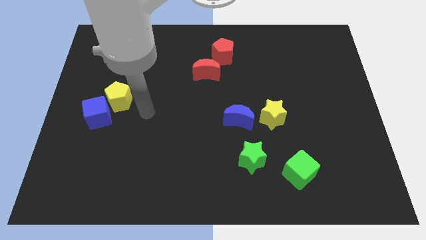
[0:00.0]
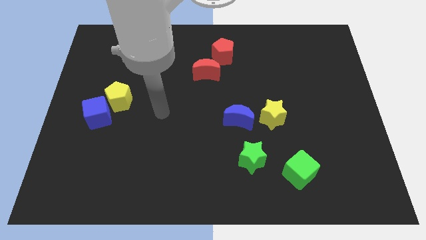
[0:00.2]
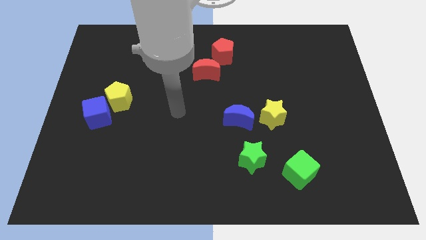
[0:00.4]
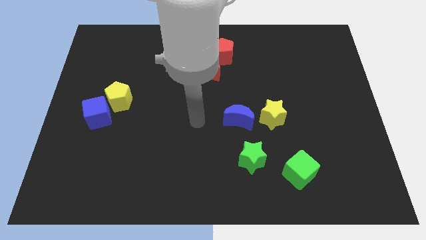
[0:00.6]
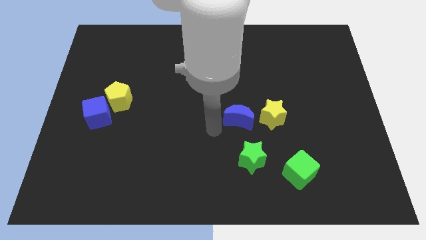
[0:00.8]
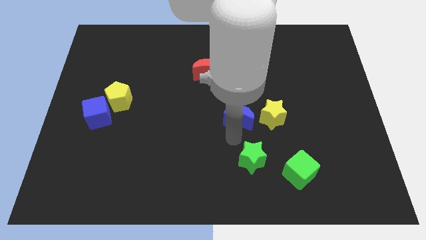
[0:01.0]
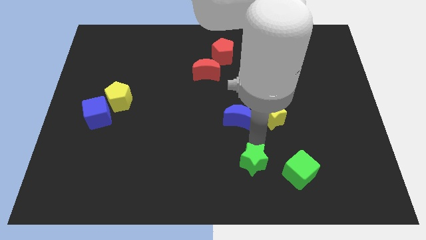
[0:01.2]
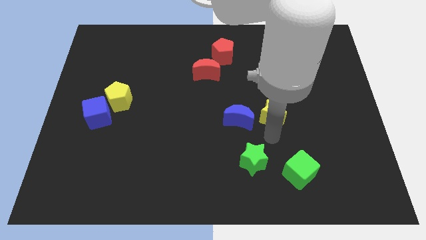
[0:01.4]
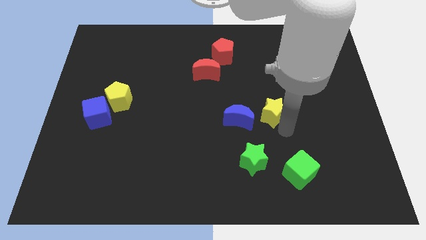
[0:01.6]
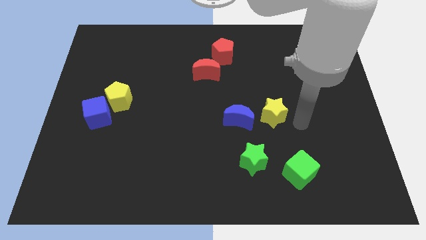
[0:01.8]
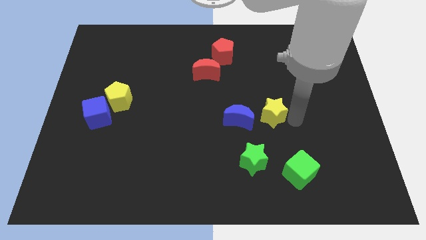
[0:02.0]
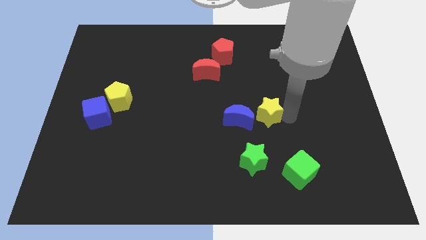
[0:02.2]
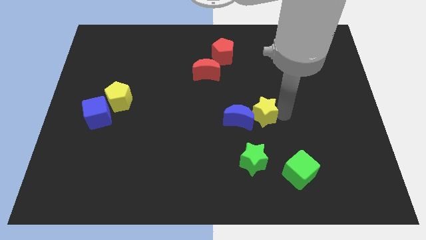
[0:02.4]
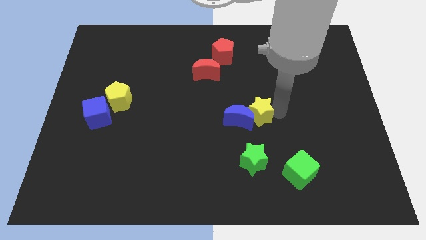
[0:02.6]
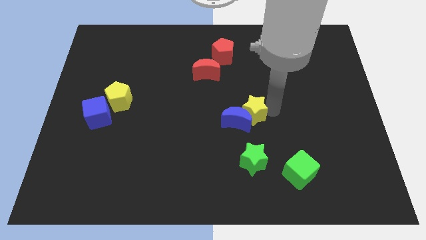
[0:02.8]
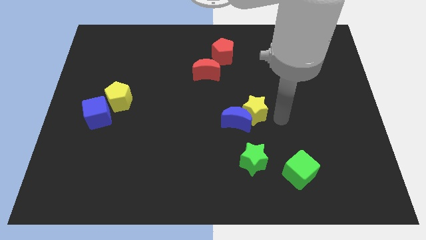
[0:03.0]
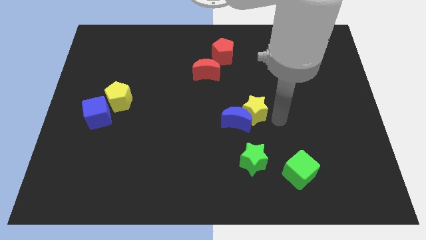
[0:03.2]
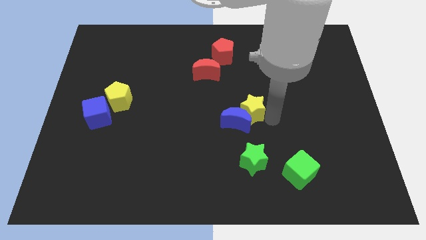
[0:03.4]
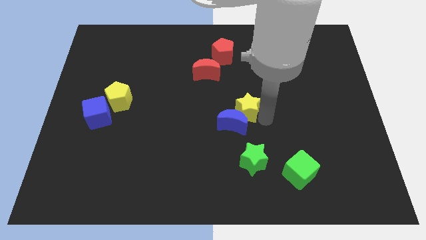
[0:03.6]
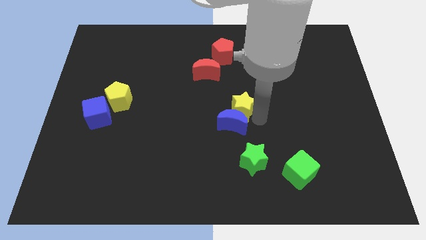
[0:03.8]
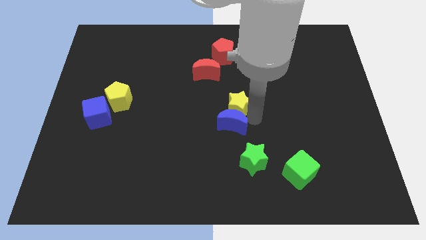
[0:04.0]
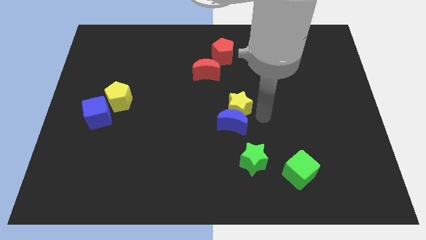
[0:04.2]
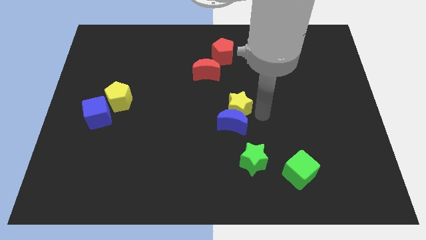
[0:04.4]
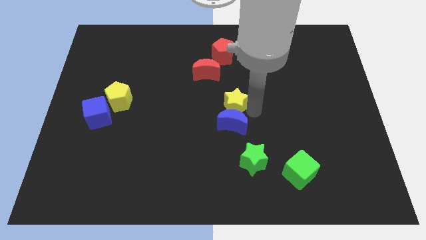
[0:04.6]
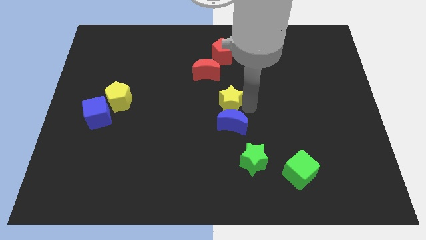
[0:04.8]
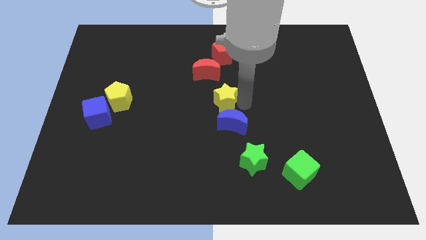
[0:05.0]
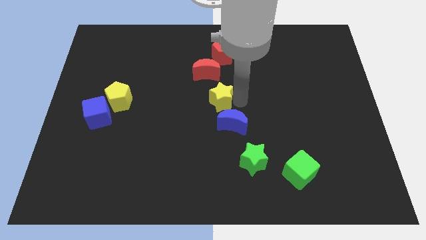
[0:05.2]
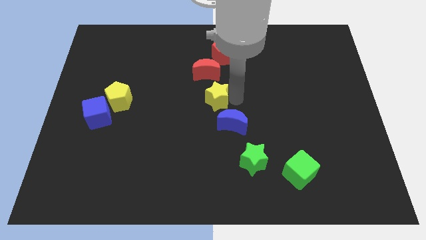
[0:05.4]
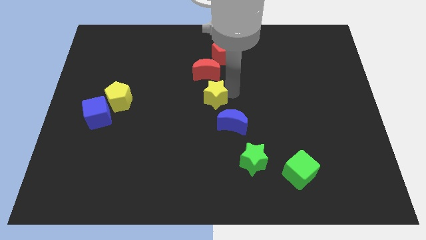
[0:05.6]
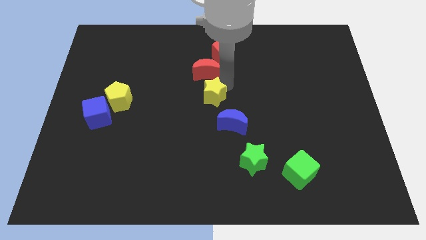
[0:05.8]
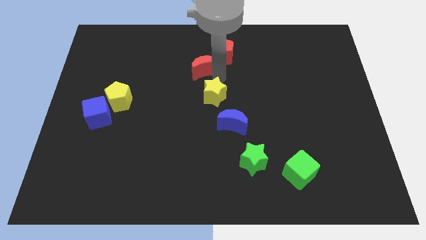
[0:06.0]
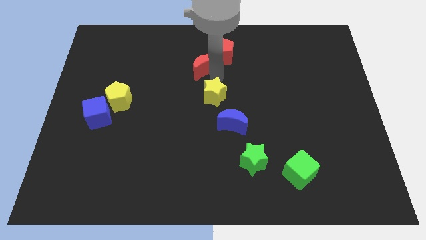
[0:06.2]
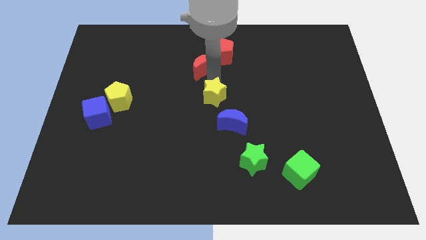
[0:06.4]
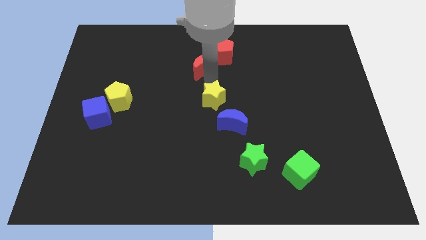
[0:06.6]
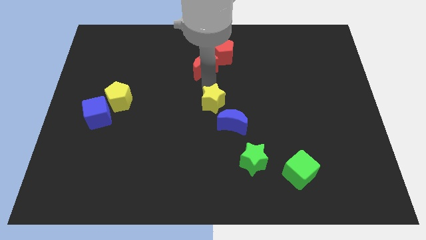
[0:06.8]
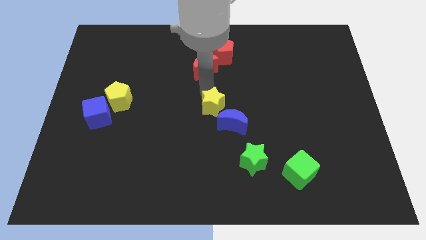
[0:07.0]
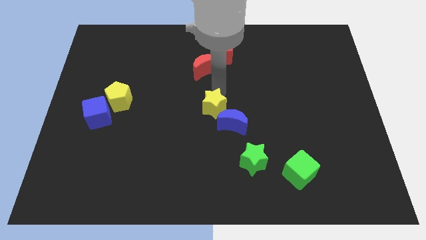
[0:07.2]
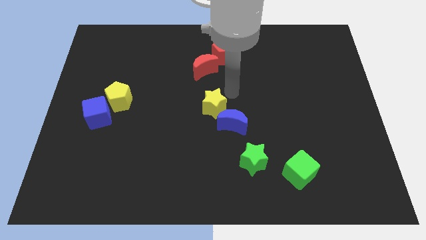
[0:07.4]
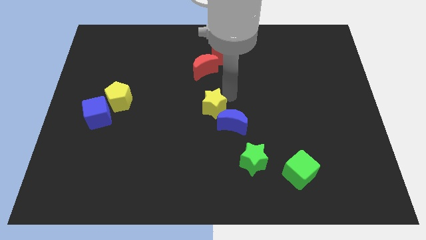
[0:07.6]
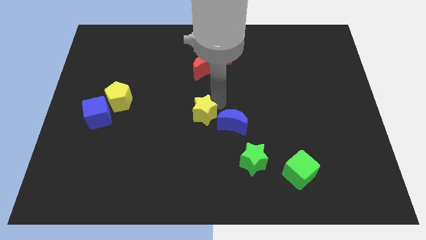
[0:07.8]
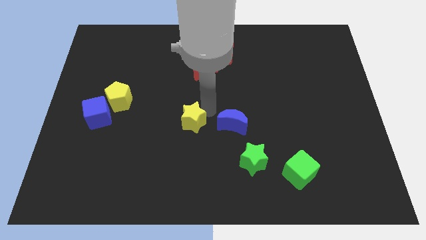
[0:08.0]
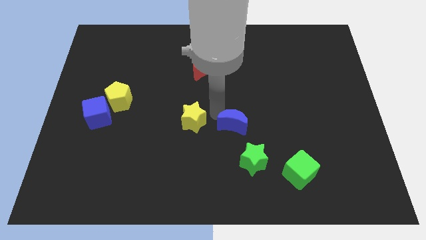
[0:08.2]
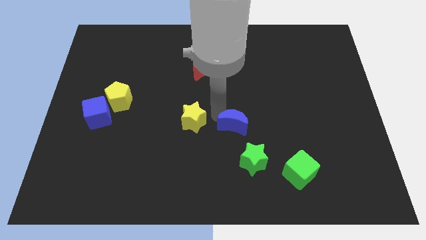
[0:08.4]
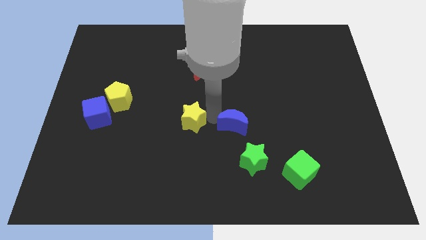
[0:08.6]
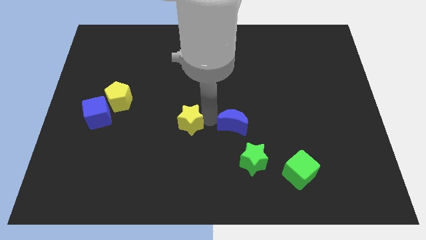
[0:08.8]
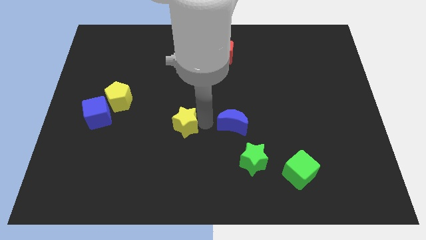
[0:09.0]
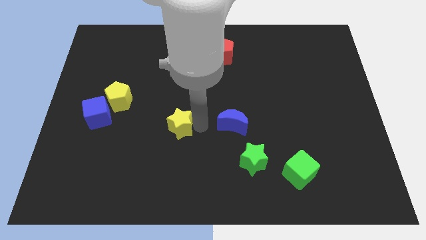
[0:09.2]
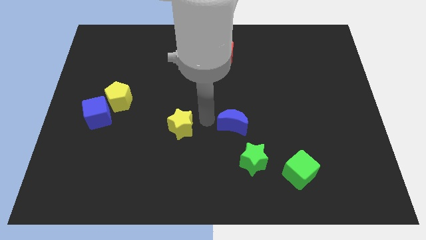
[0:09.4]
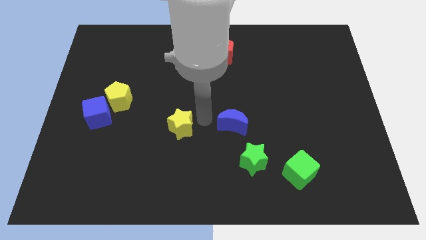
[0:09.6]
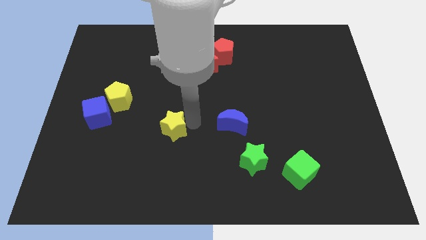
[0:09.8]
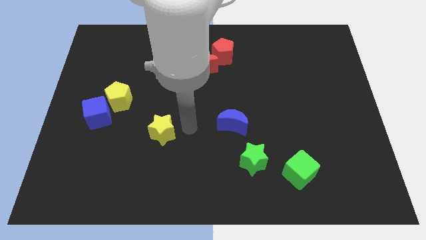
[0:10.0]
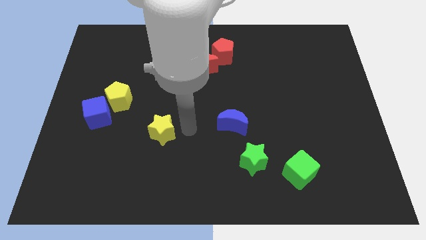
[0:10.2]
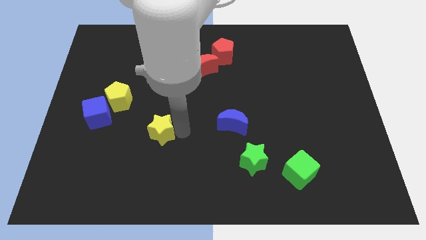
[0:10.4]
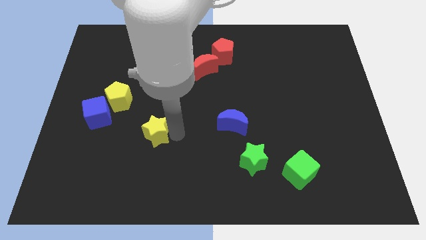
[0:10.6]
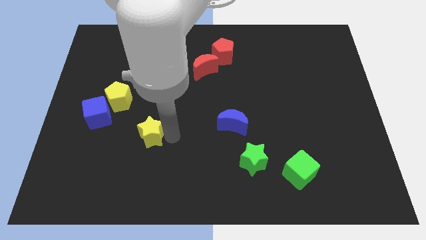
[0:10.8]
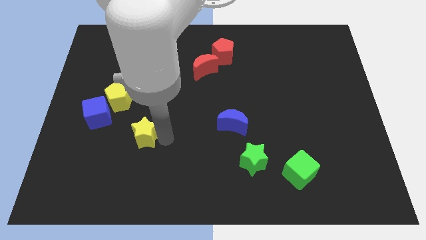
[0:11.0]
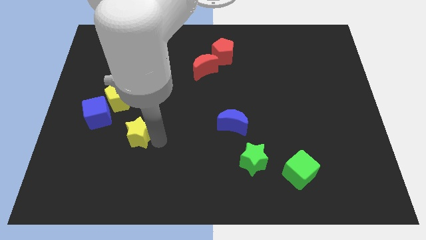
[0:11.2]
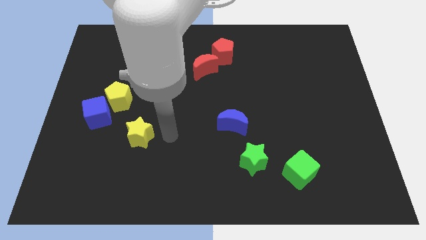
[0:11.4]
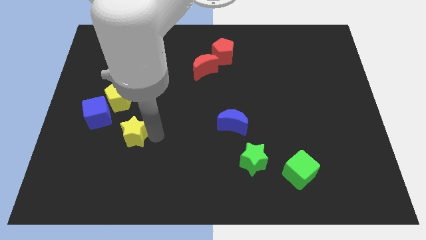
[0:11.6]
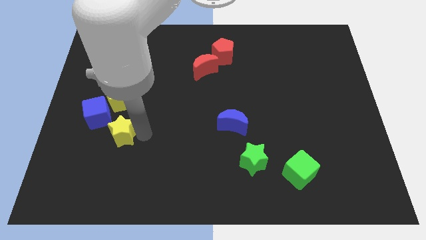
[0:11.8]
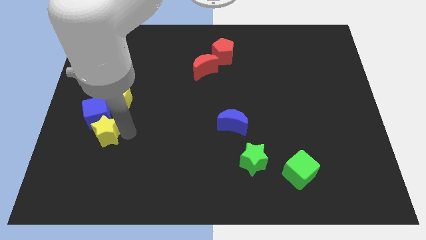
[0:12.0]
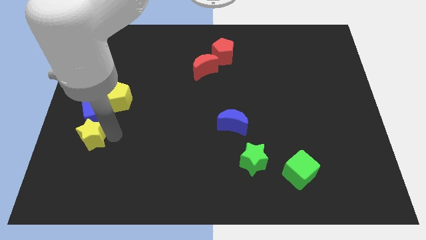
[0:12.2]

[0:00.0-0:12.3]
put the yellow star to the bottom left of the yellow pentagon
